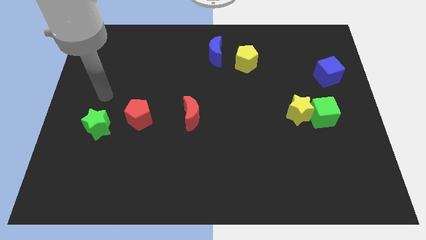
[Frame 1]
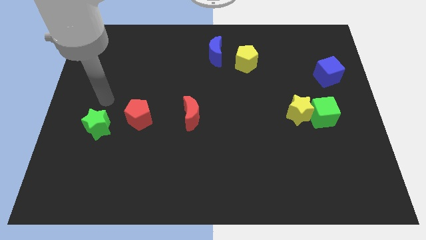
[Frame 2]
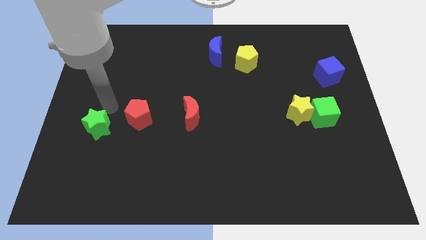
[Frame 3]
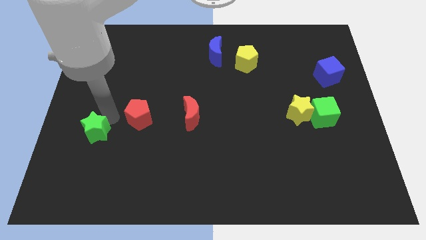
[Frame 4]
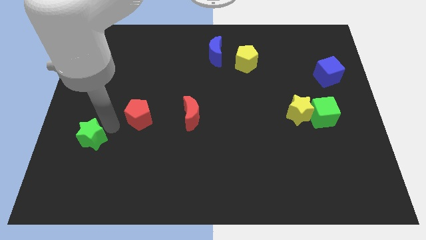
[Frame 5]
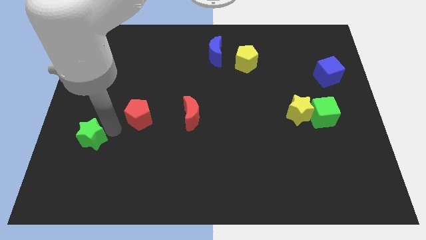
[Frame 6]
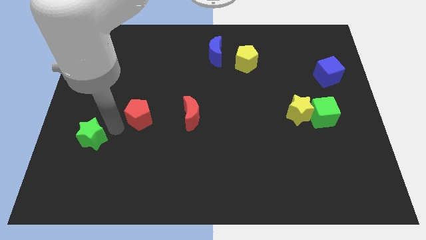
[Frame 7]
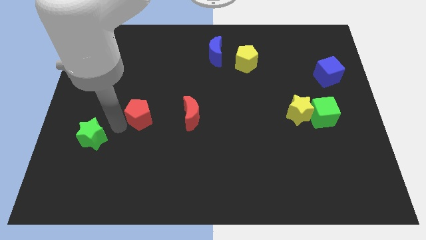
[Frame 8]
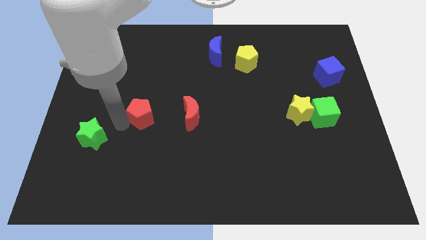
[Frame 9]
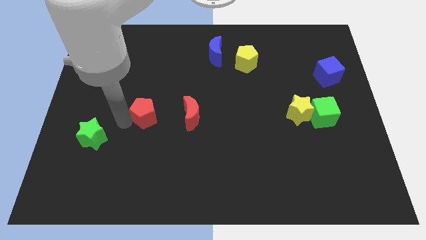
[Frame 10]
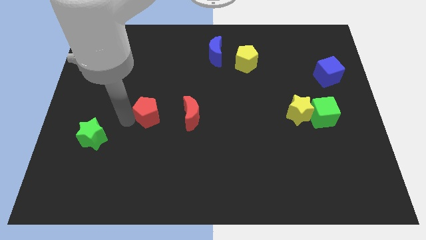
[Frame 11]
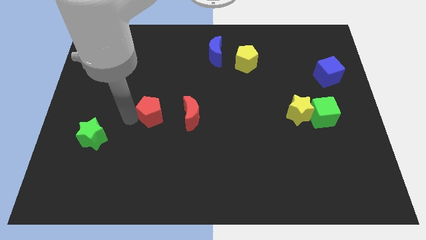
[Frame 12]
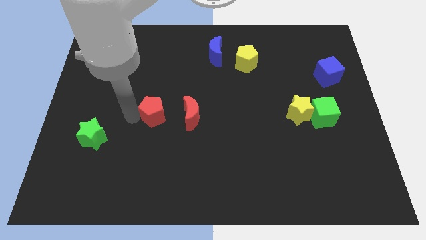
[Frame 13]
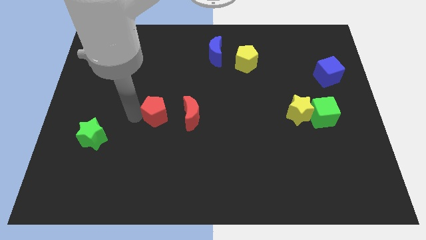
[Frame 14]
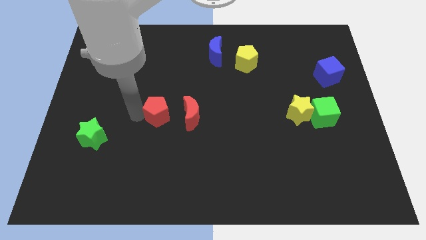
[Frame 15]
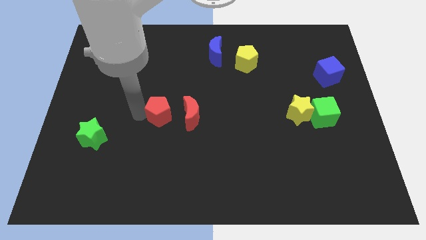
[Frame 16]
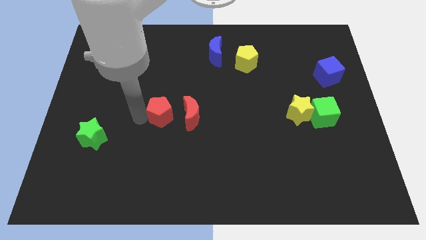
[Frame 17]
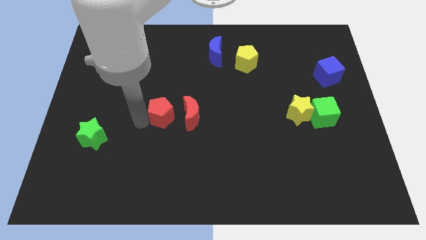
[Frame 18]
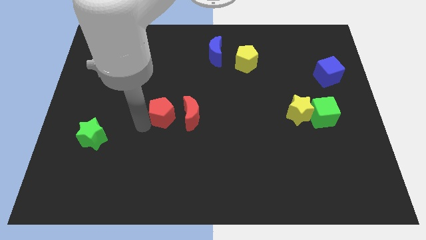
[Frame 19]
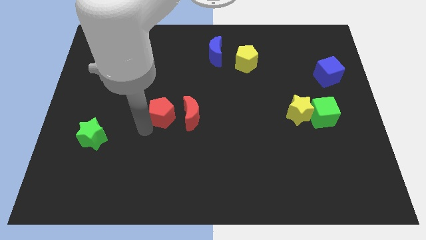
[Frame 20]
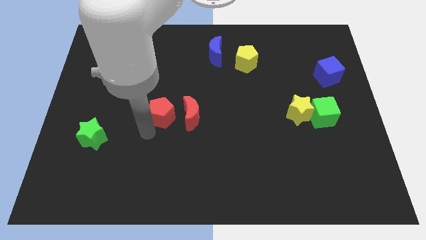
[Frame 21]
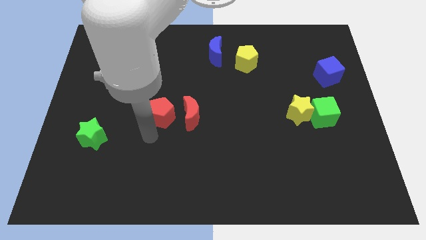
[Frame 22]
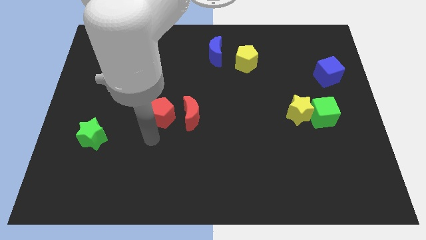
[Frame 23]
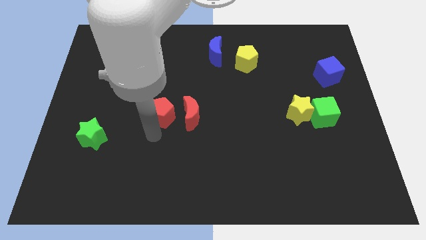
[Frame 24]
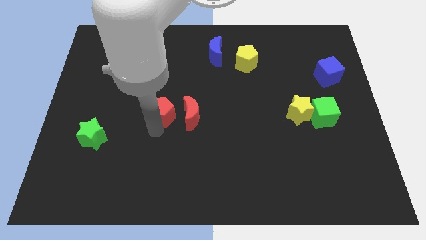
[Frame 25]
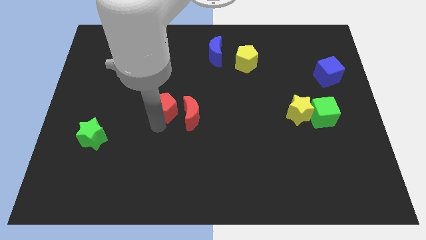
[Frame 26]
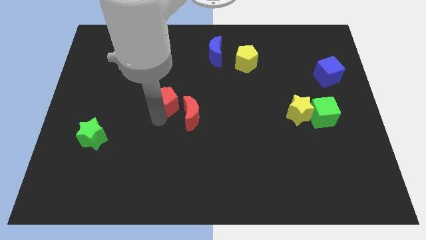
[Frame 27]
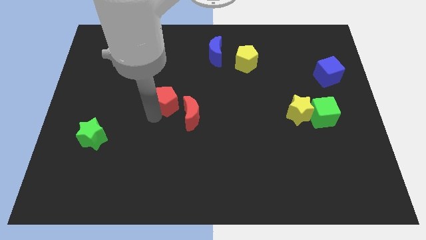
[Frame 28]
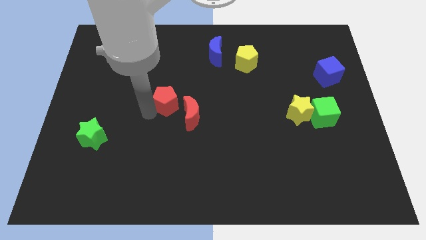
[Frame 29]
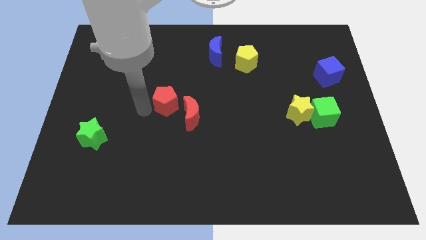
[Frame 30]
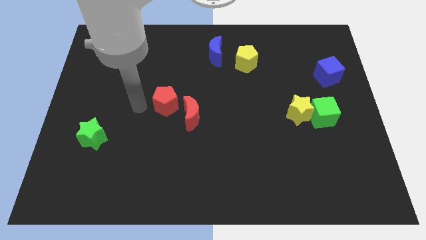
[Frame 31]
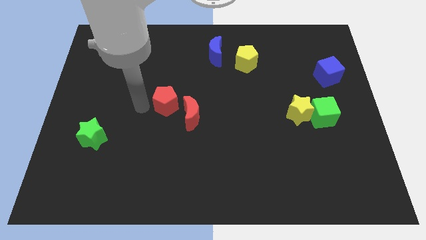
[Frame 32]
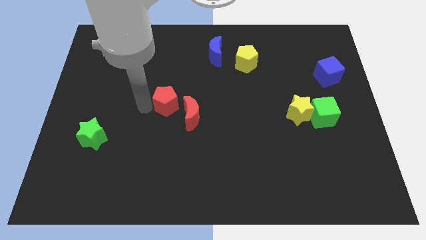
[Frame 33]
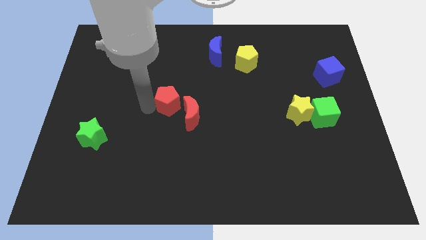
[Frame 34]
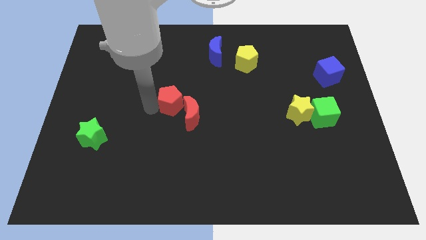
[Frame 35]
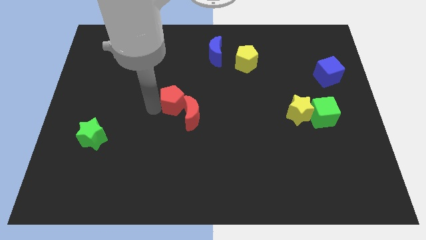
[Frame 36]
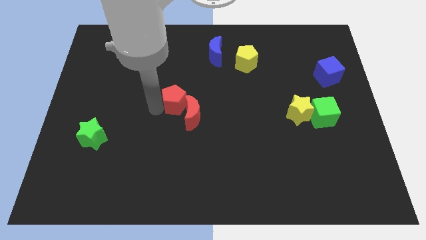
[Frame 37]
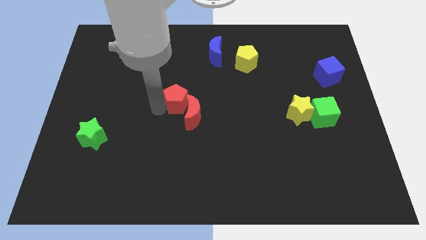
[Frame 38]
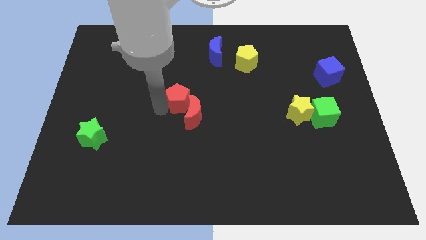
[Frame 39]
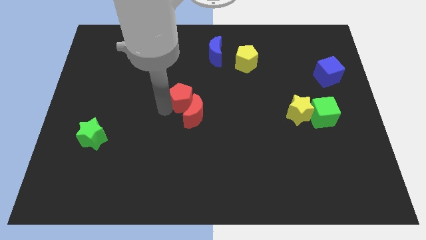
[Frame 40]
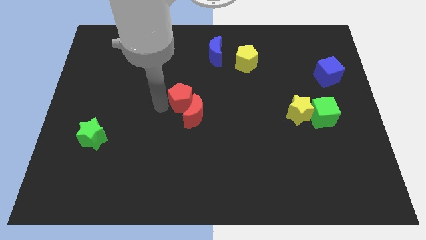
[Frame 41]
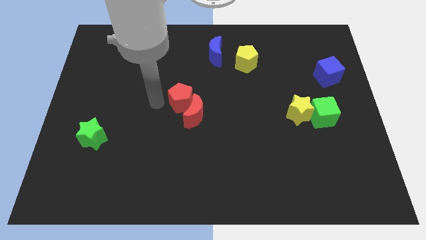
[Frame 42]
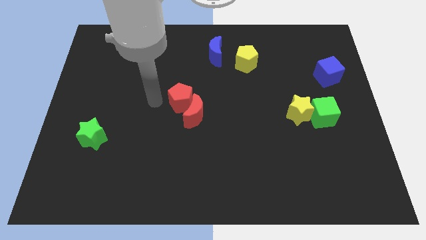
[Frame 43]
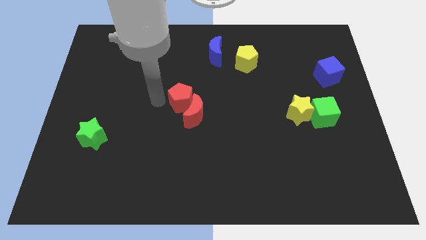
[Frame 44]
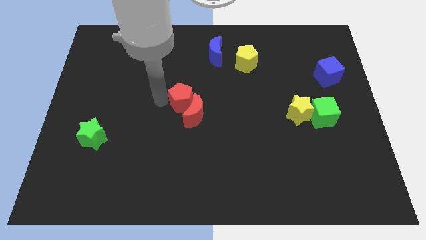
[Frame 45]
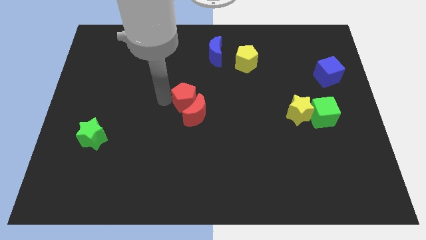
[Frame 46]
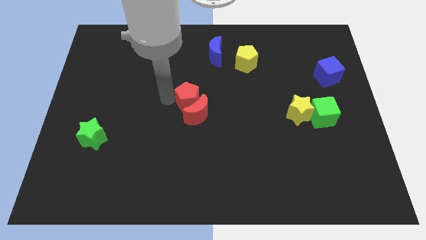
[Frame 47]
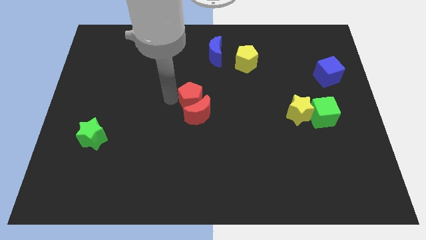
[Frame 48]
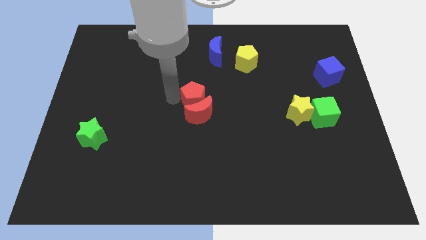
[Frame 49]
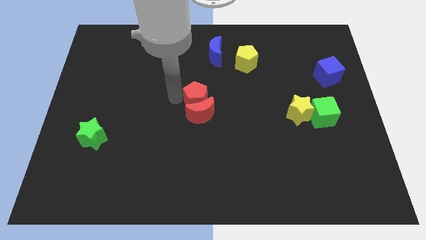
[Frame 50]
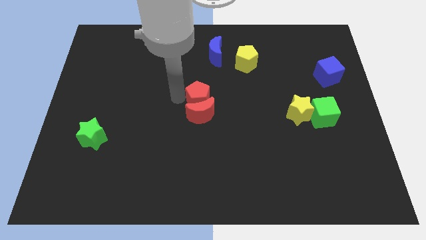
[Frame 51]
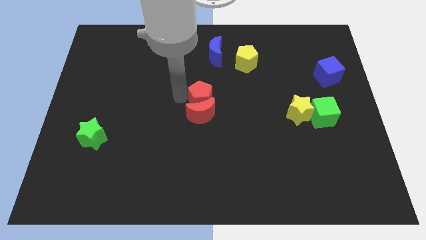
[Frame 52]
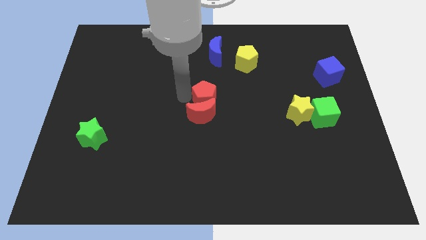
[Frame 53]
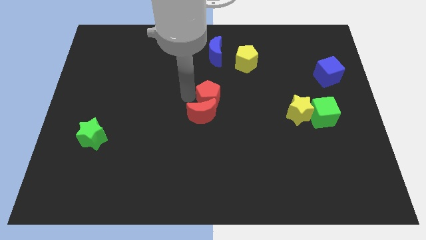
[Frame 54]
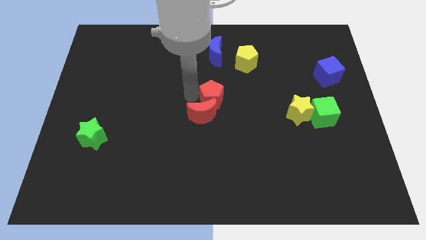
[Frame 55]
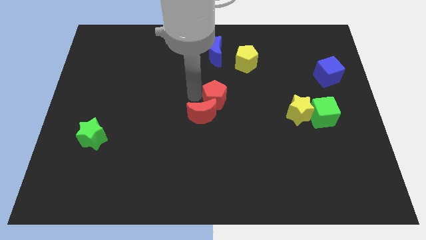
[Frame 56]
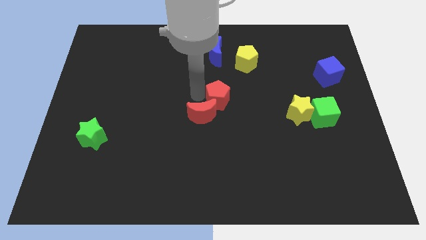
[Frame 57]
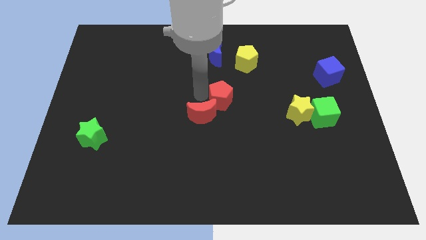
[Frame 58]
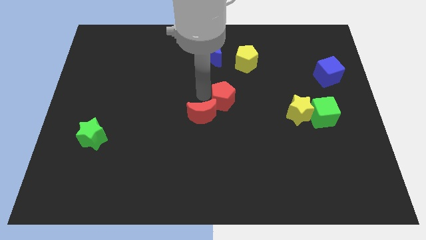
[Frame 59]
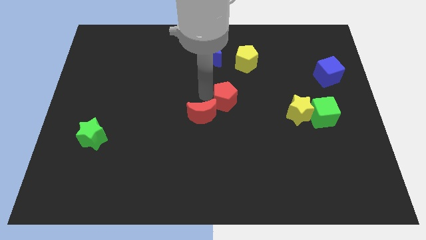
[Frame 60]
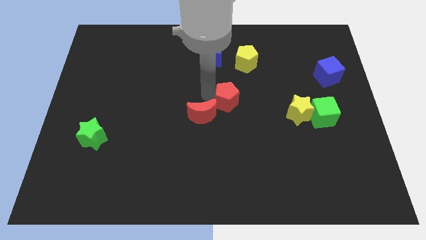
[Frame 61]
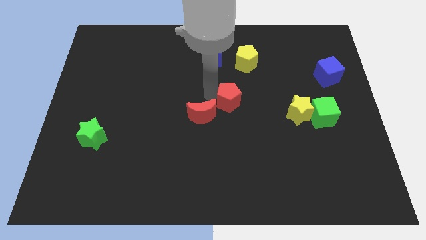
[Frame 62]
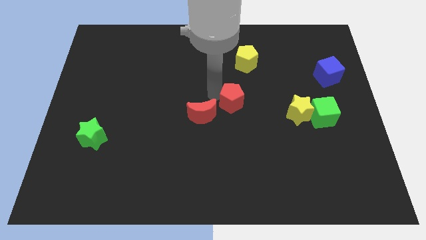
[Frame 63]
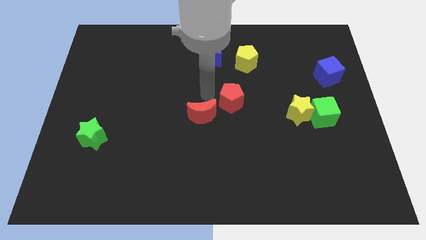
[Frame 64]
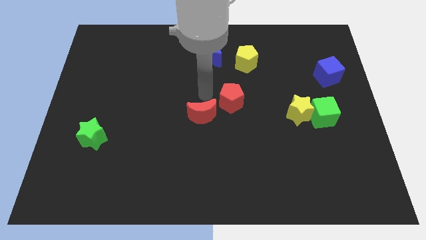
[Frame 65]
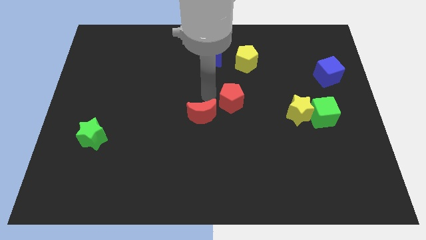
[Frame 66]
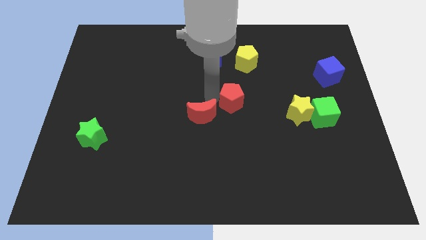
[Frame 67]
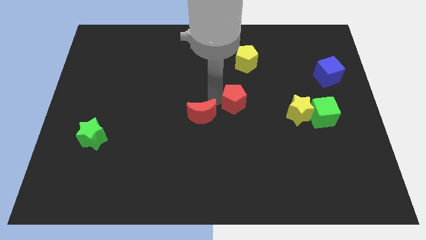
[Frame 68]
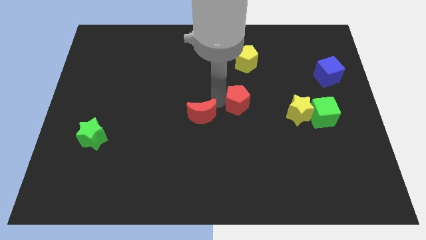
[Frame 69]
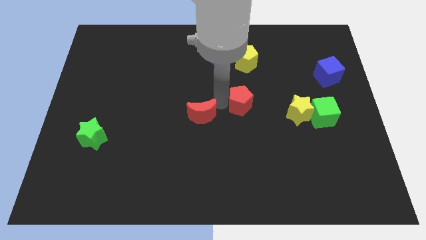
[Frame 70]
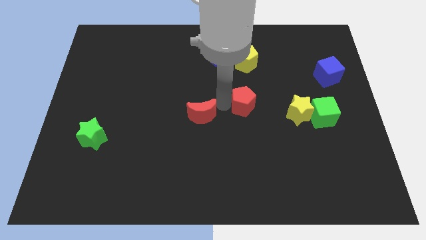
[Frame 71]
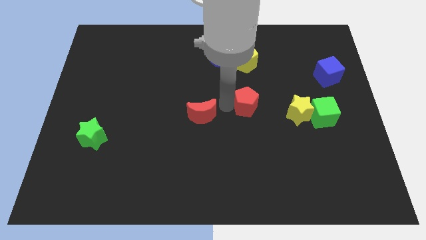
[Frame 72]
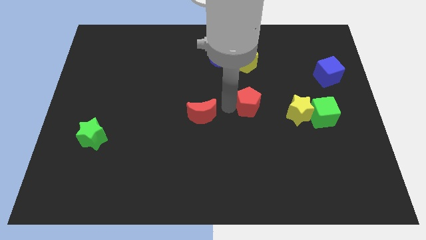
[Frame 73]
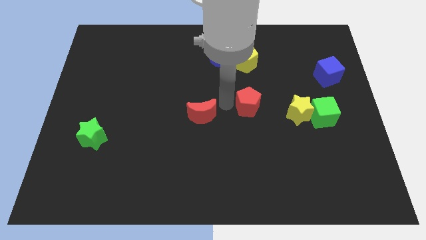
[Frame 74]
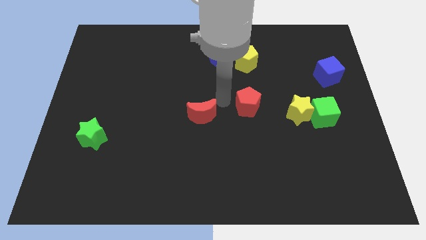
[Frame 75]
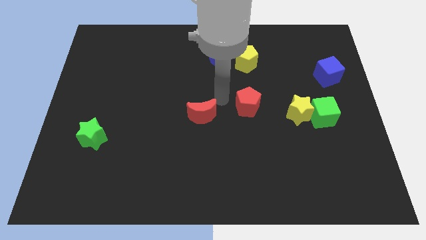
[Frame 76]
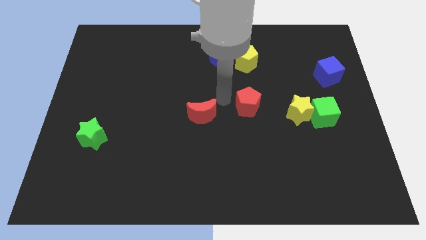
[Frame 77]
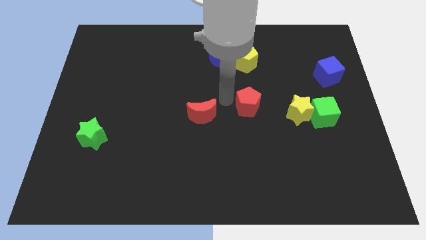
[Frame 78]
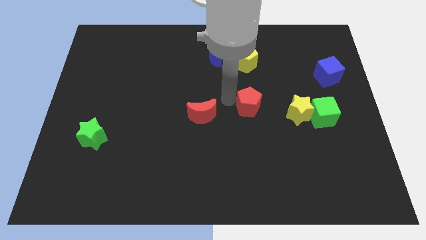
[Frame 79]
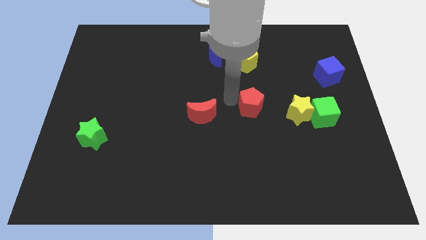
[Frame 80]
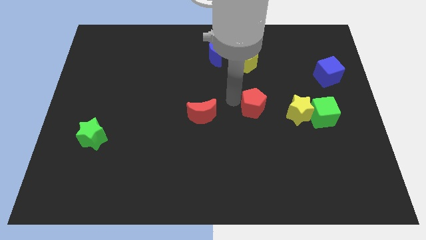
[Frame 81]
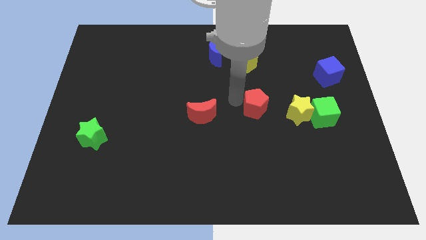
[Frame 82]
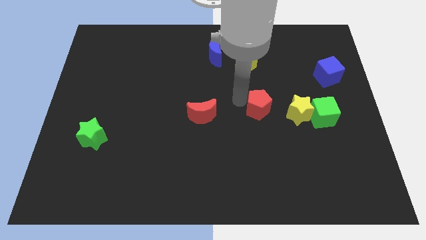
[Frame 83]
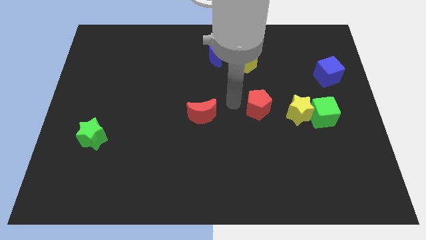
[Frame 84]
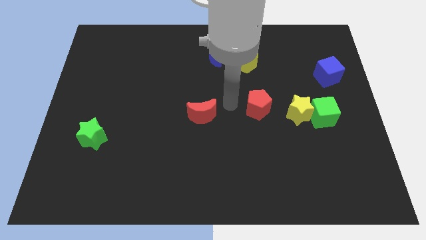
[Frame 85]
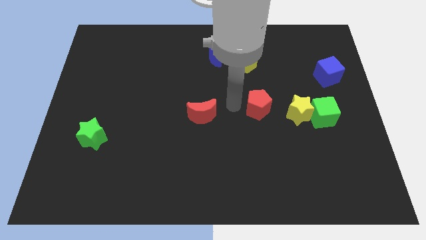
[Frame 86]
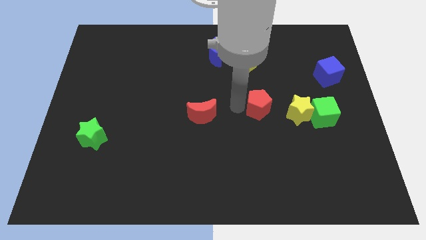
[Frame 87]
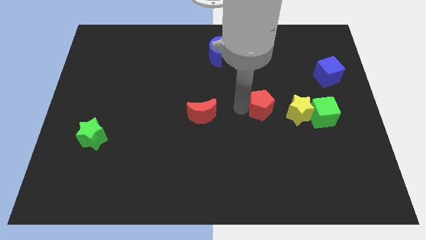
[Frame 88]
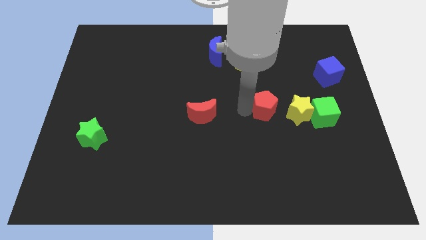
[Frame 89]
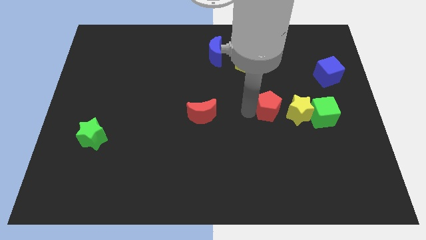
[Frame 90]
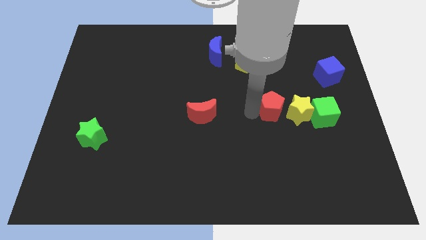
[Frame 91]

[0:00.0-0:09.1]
push the red pentagon close to the yellow star
